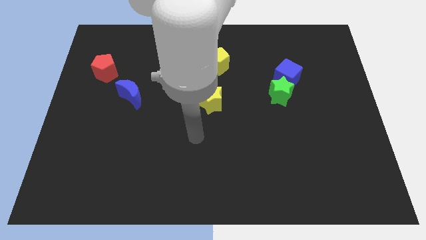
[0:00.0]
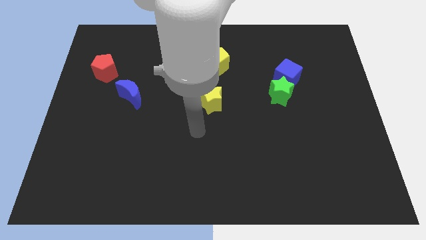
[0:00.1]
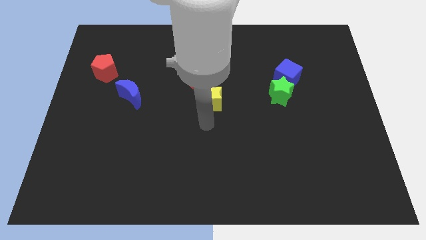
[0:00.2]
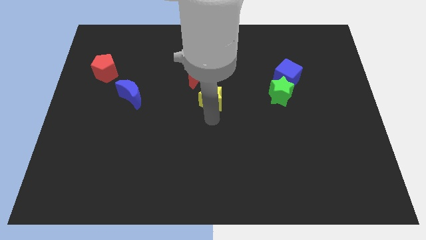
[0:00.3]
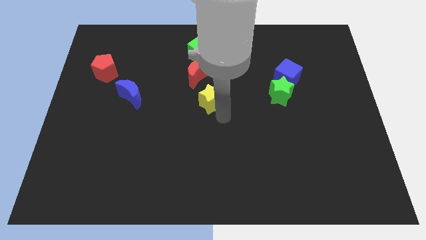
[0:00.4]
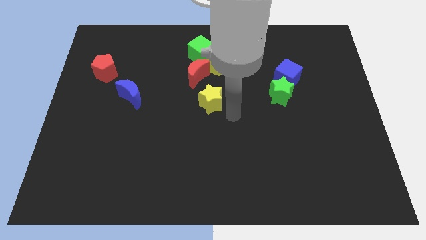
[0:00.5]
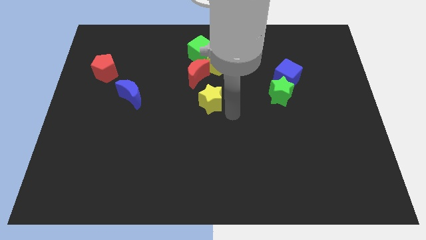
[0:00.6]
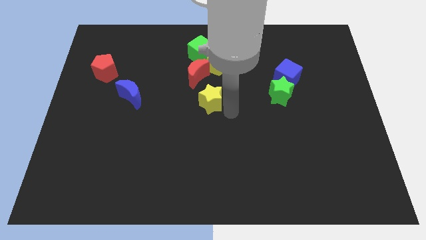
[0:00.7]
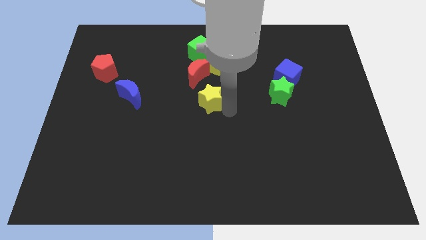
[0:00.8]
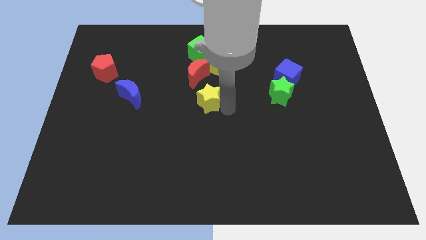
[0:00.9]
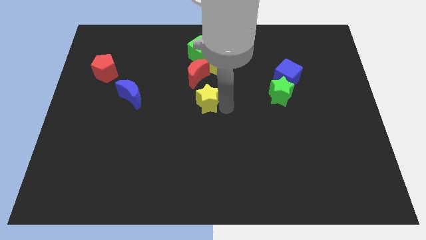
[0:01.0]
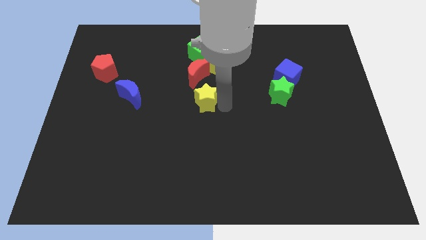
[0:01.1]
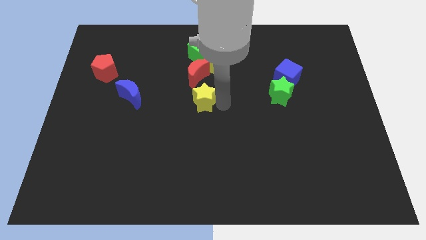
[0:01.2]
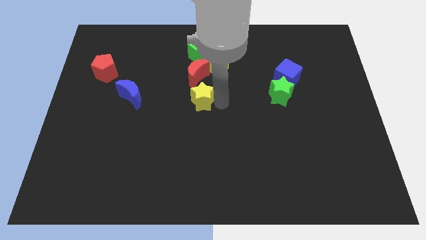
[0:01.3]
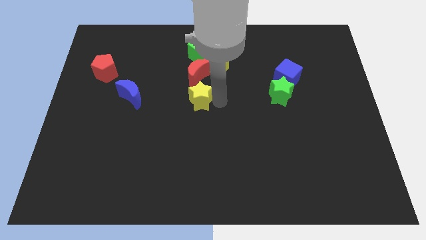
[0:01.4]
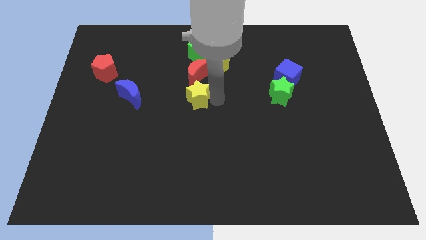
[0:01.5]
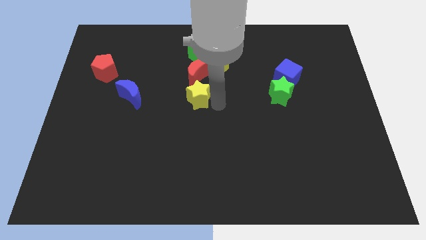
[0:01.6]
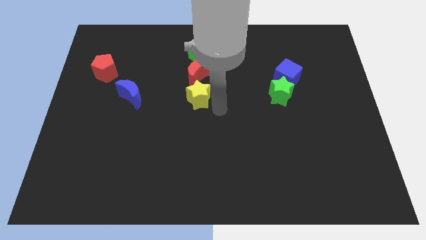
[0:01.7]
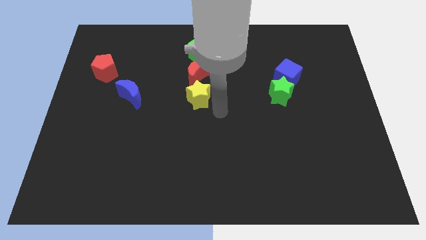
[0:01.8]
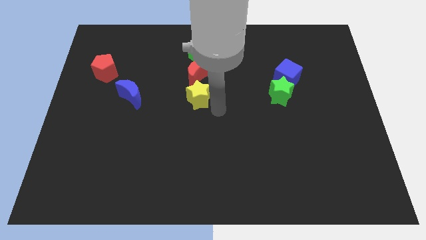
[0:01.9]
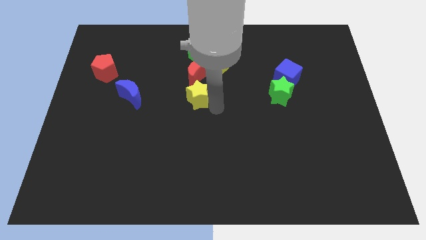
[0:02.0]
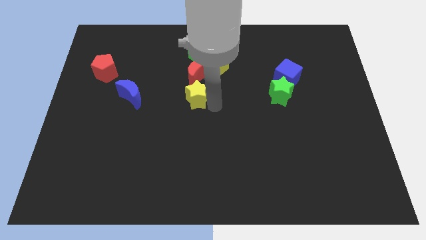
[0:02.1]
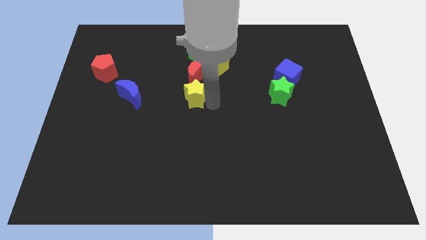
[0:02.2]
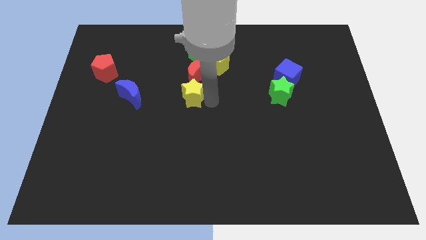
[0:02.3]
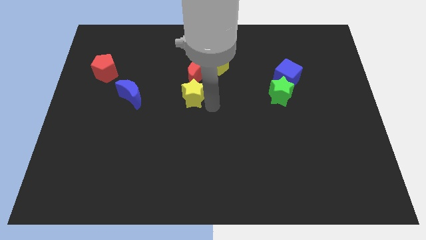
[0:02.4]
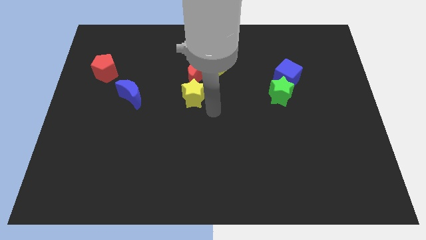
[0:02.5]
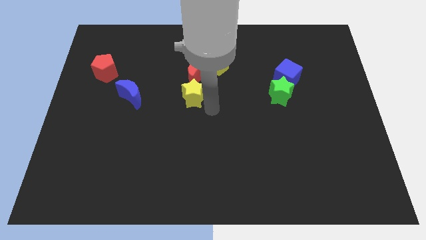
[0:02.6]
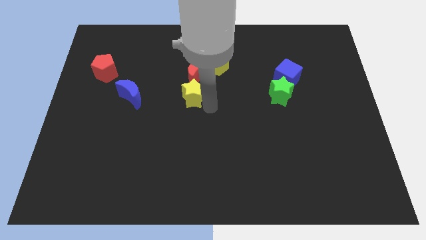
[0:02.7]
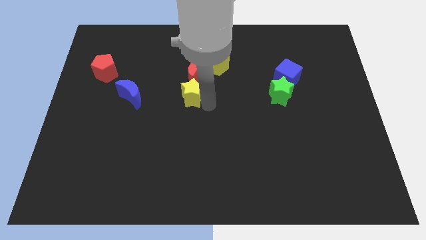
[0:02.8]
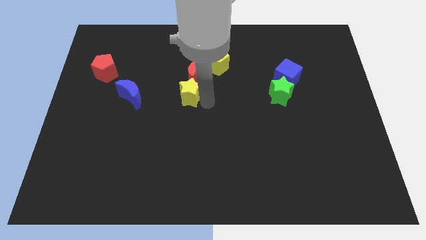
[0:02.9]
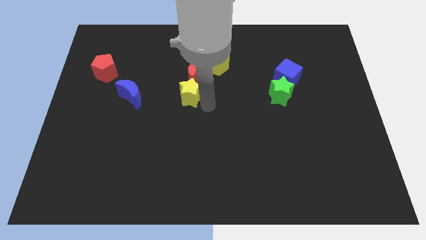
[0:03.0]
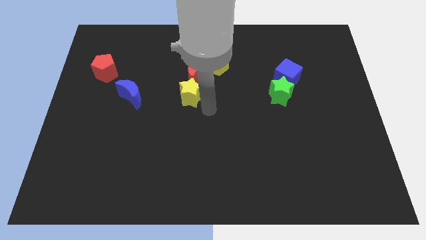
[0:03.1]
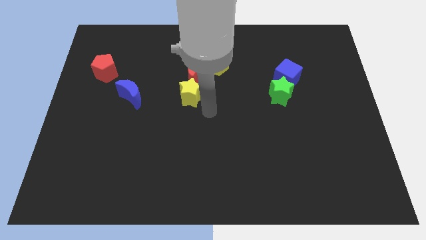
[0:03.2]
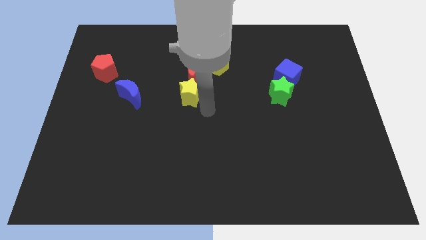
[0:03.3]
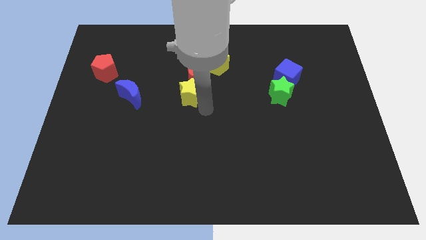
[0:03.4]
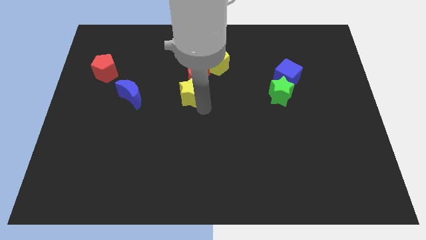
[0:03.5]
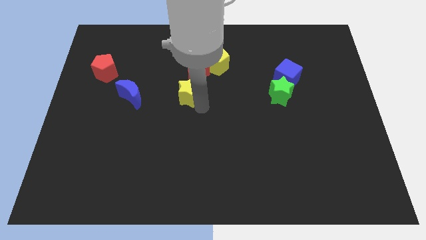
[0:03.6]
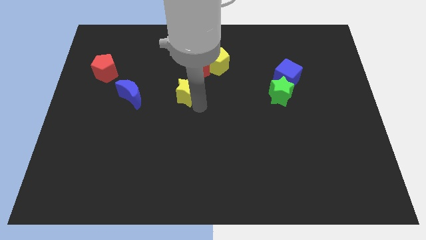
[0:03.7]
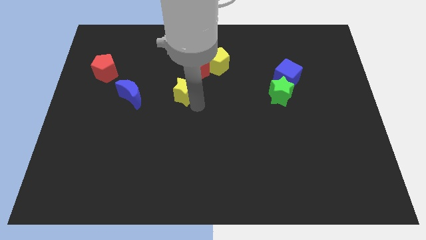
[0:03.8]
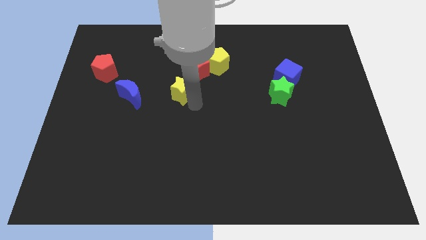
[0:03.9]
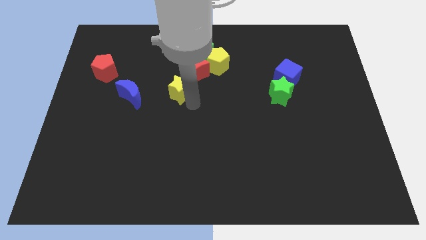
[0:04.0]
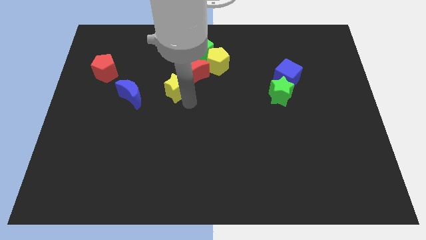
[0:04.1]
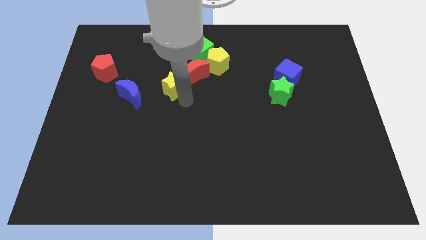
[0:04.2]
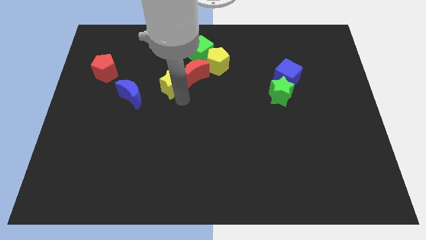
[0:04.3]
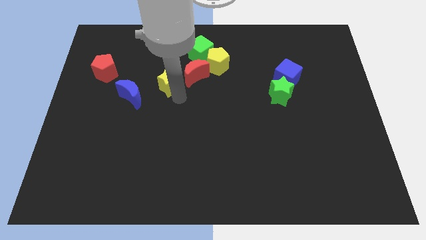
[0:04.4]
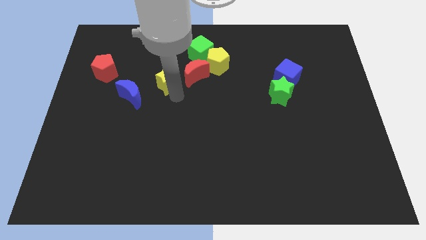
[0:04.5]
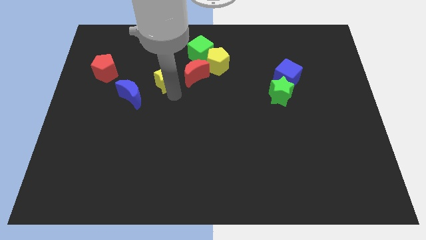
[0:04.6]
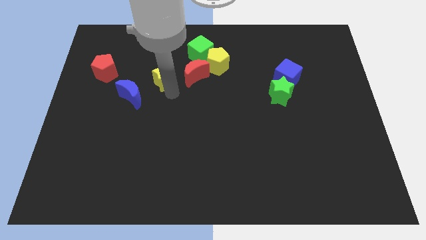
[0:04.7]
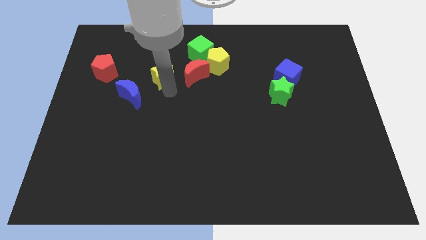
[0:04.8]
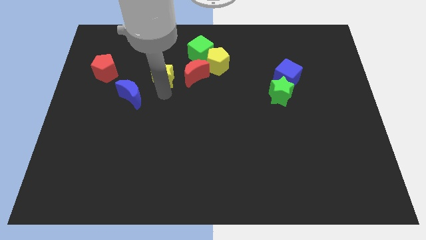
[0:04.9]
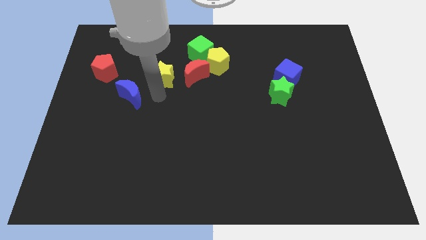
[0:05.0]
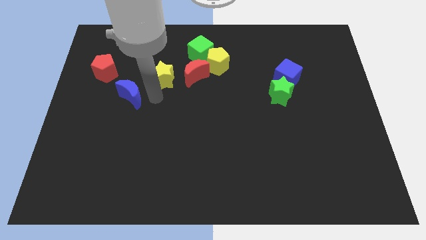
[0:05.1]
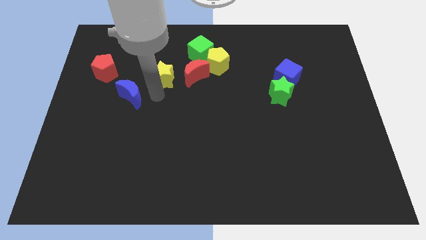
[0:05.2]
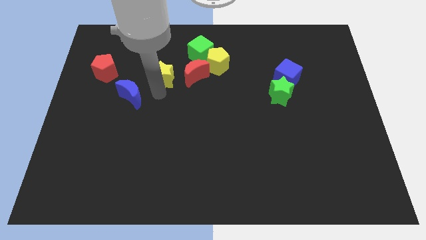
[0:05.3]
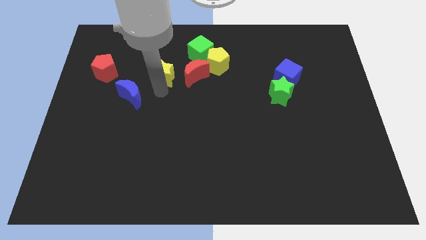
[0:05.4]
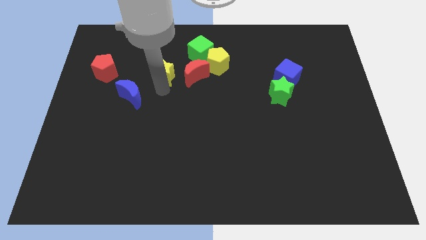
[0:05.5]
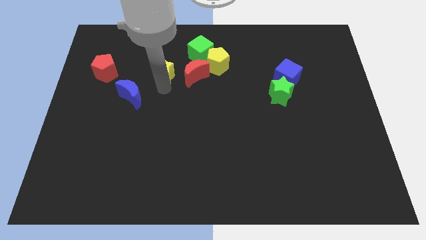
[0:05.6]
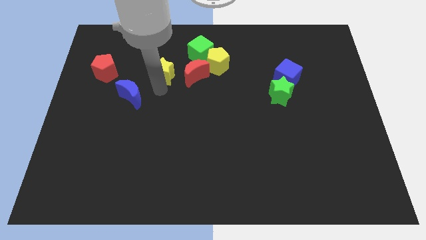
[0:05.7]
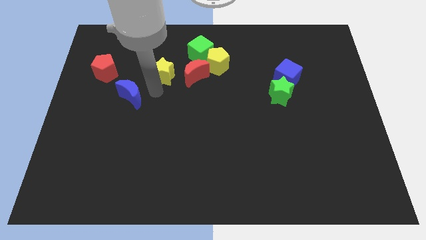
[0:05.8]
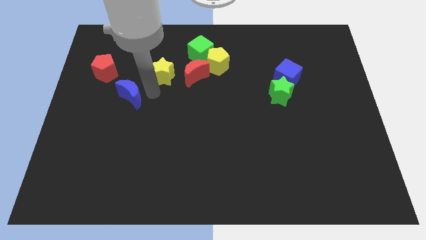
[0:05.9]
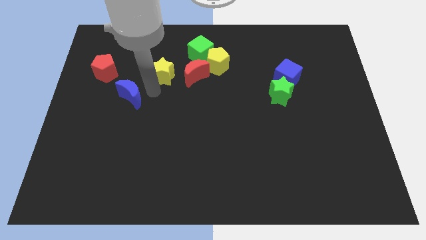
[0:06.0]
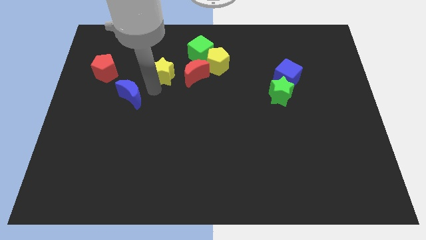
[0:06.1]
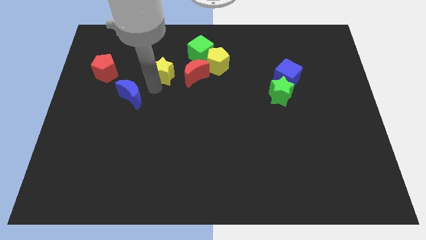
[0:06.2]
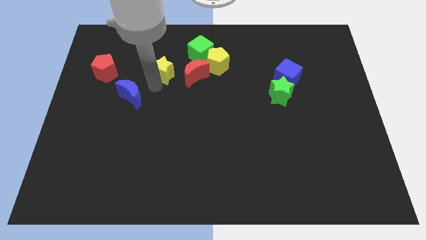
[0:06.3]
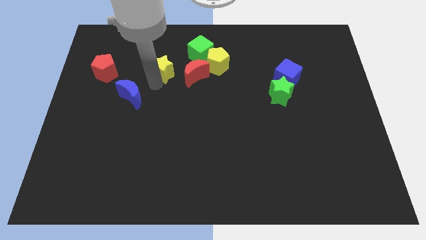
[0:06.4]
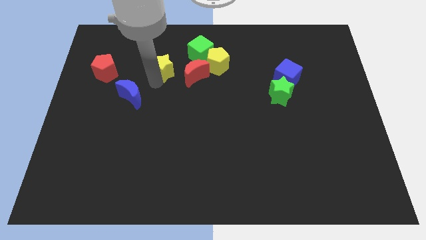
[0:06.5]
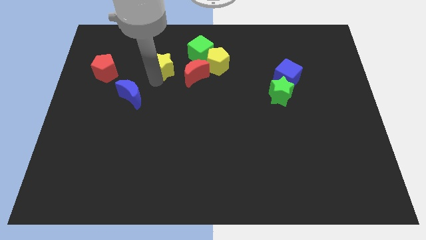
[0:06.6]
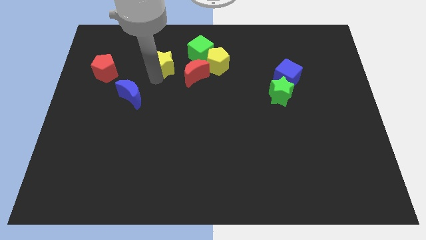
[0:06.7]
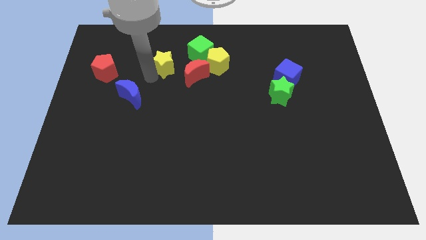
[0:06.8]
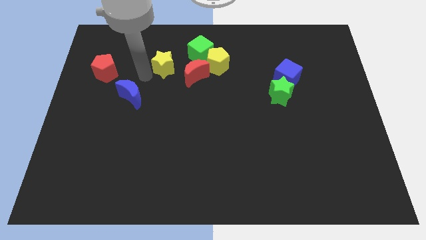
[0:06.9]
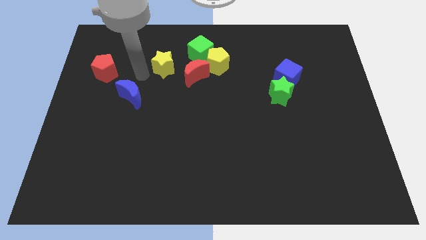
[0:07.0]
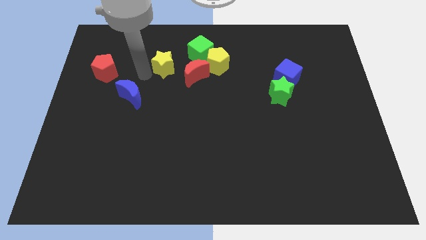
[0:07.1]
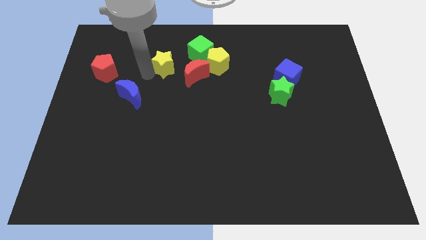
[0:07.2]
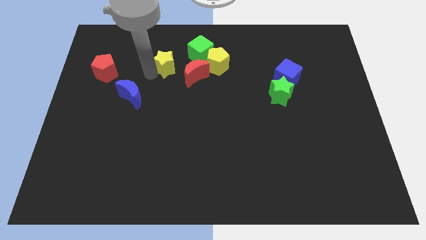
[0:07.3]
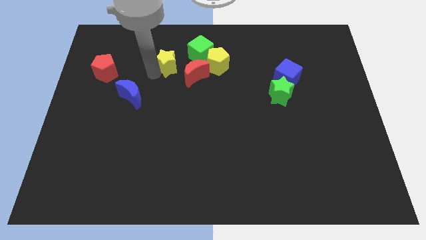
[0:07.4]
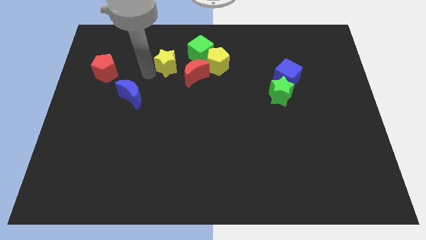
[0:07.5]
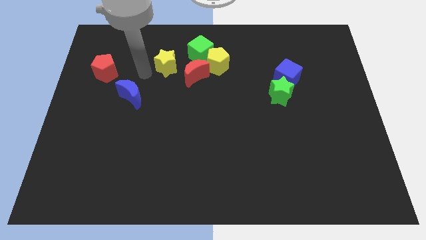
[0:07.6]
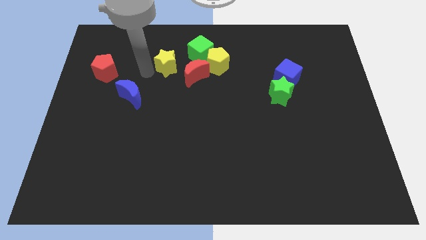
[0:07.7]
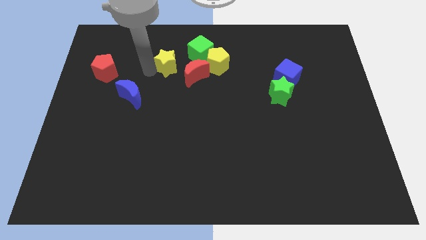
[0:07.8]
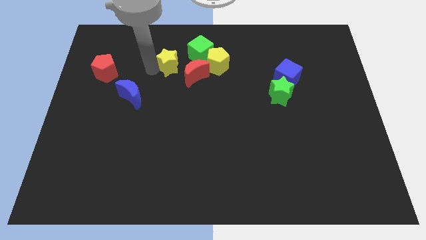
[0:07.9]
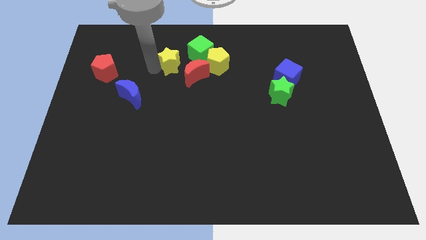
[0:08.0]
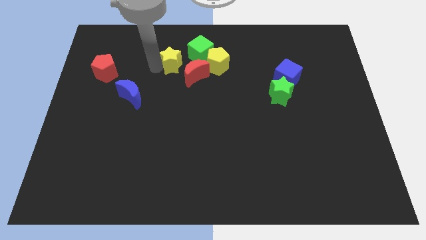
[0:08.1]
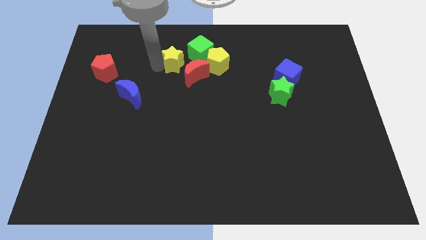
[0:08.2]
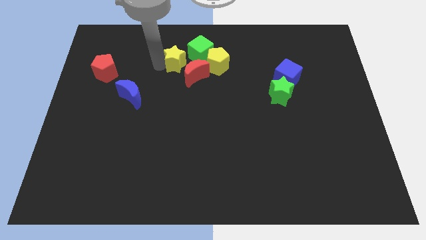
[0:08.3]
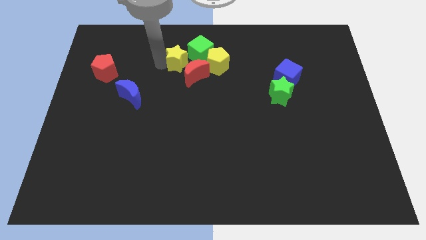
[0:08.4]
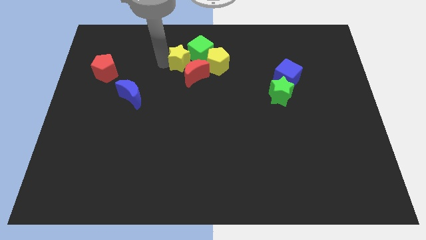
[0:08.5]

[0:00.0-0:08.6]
push the yellow star to the green cube
